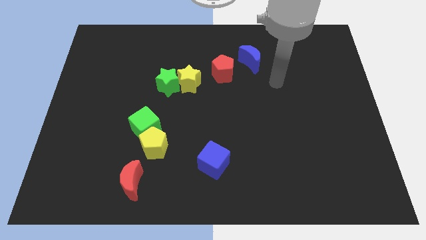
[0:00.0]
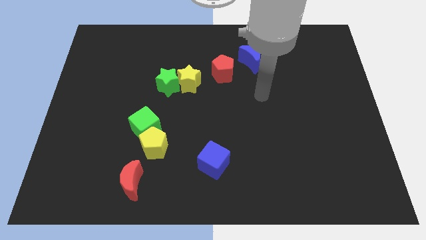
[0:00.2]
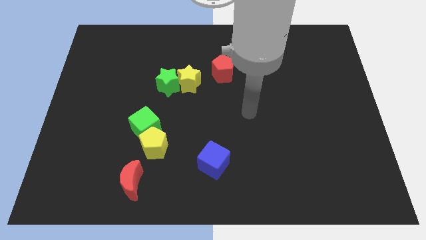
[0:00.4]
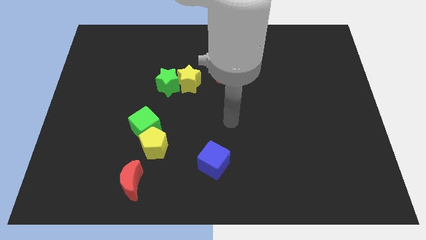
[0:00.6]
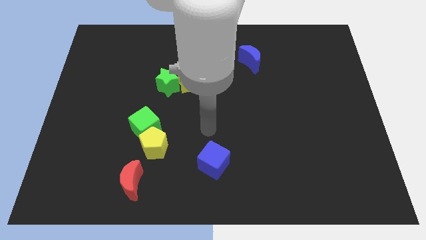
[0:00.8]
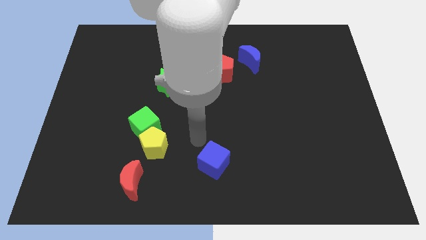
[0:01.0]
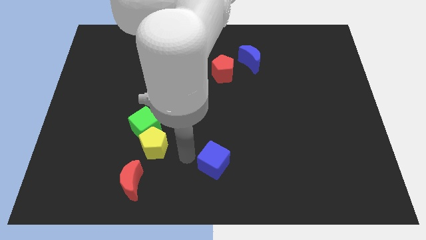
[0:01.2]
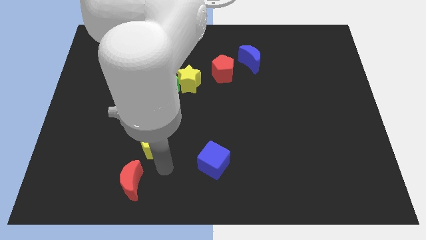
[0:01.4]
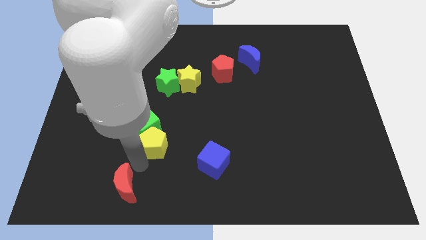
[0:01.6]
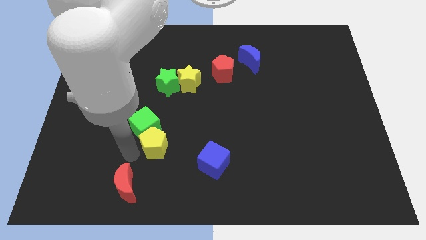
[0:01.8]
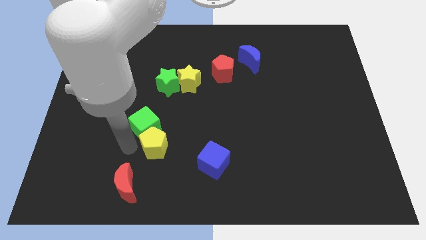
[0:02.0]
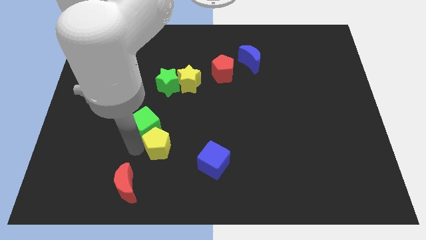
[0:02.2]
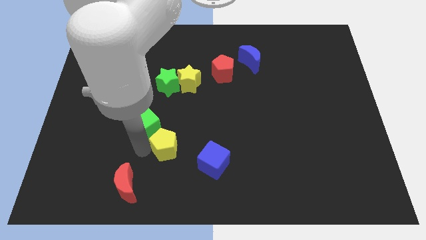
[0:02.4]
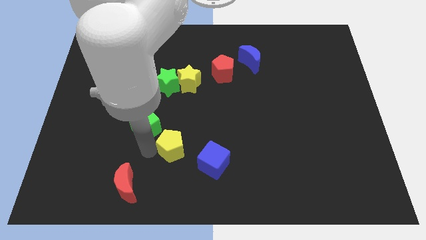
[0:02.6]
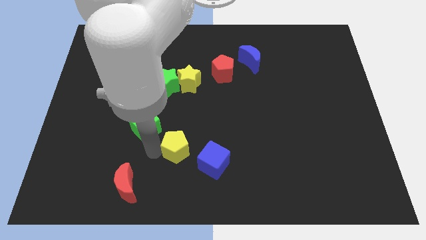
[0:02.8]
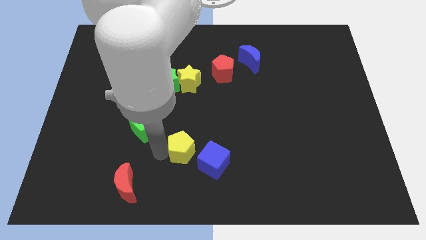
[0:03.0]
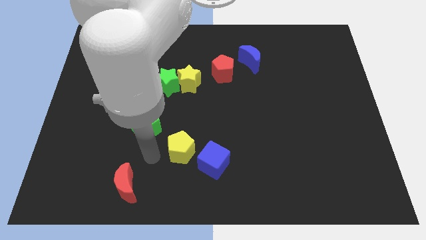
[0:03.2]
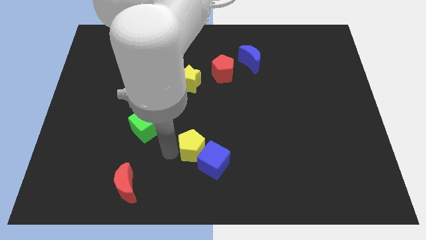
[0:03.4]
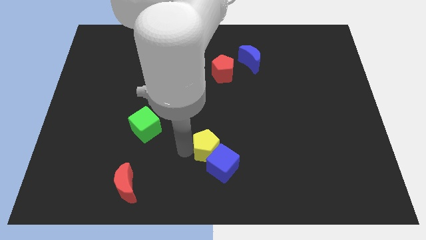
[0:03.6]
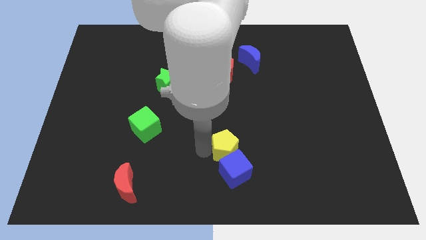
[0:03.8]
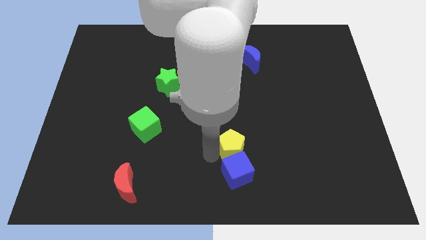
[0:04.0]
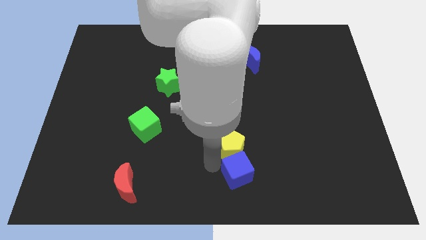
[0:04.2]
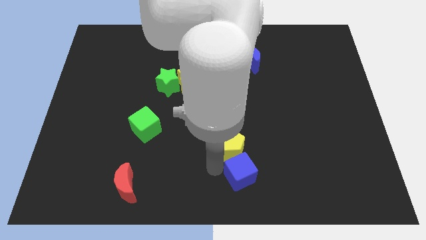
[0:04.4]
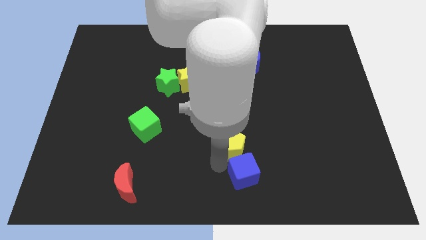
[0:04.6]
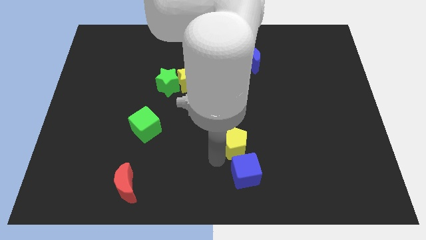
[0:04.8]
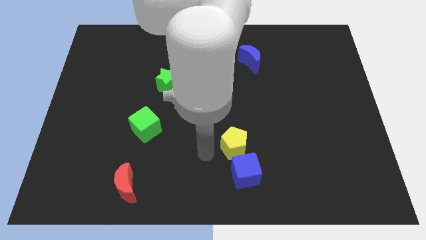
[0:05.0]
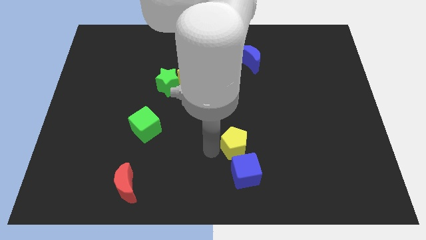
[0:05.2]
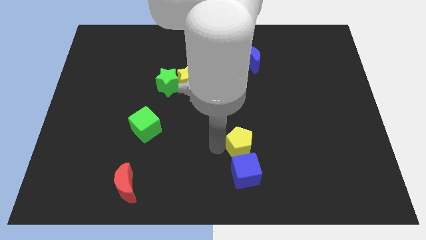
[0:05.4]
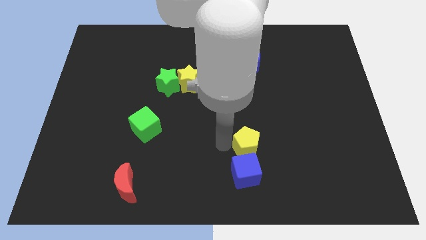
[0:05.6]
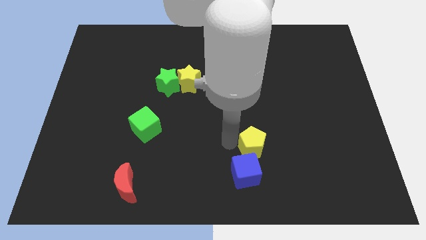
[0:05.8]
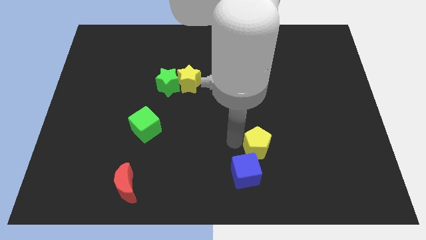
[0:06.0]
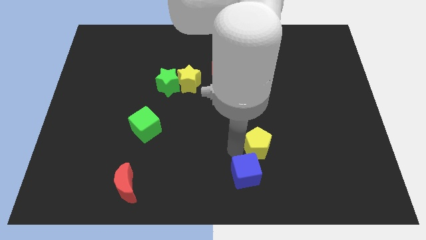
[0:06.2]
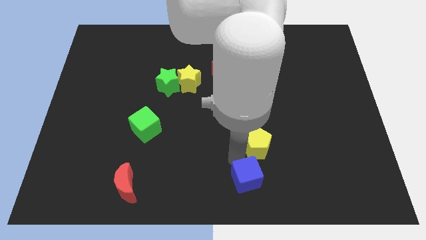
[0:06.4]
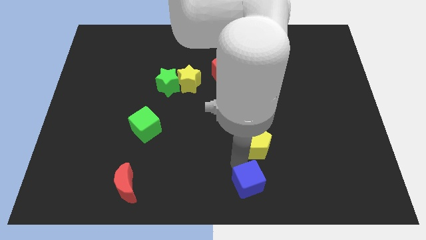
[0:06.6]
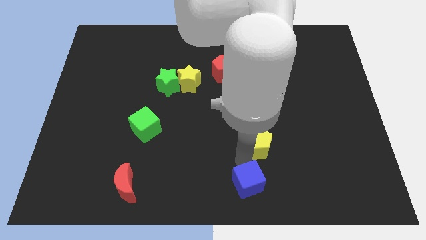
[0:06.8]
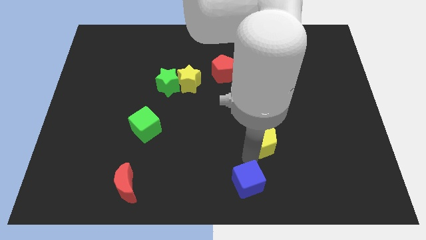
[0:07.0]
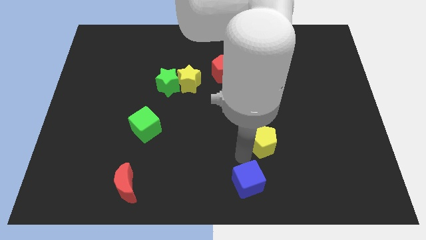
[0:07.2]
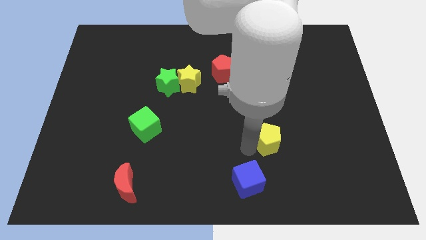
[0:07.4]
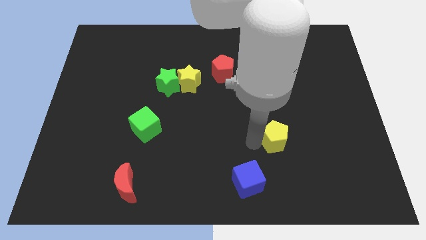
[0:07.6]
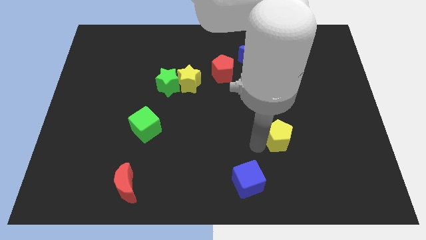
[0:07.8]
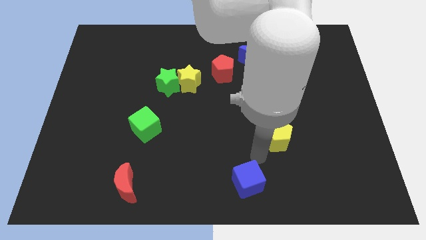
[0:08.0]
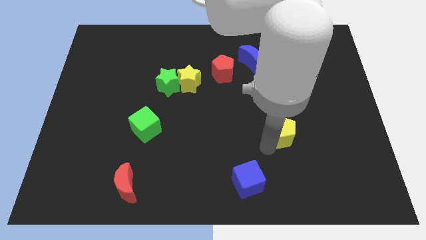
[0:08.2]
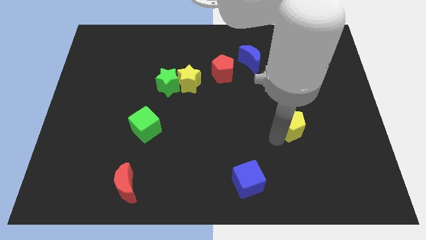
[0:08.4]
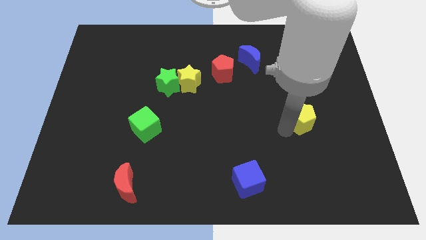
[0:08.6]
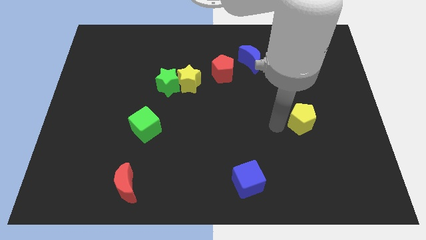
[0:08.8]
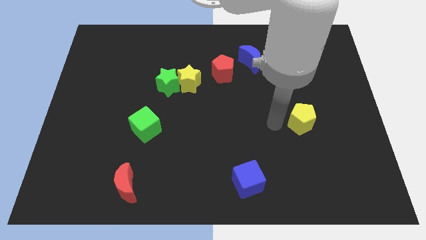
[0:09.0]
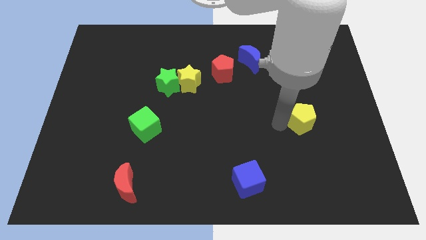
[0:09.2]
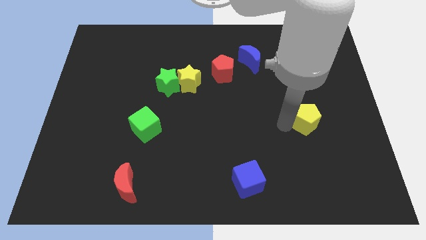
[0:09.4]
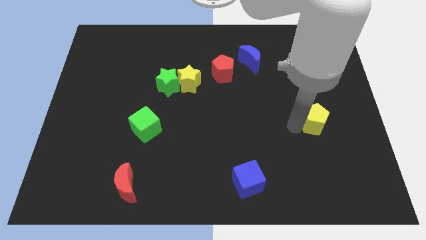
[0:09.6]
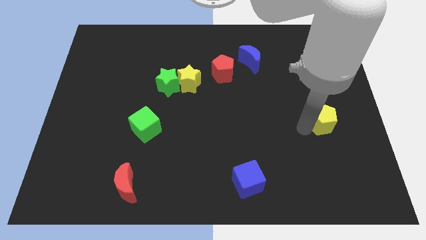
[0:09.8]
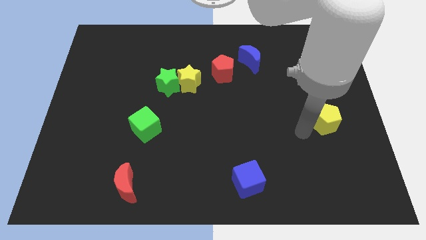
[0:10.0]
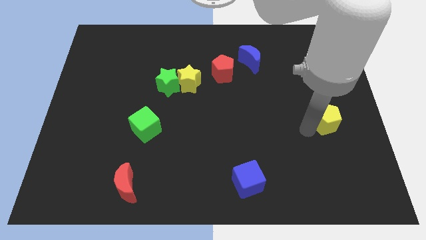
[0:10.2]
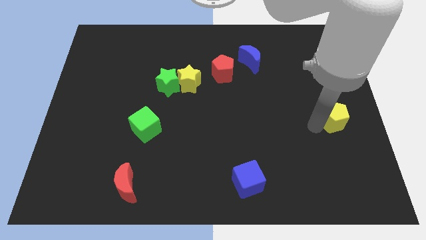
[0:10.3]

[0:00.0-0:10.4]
slide the yellow pentagon to the right side

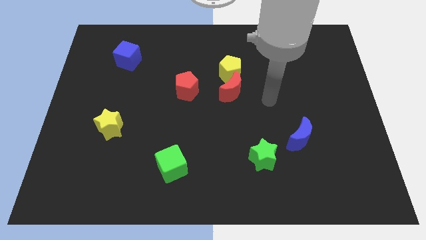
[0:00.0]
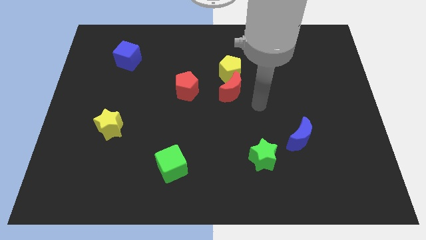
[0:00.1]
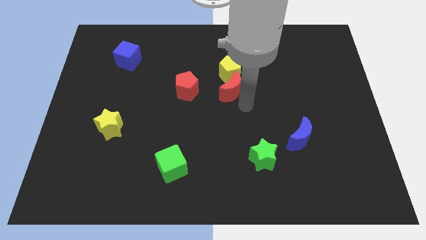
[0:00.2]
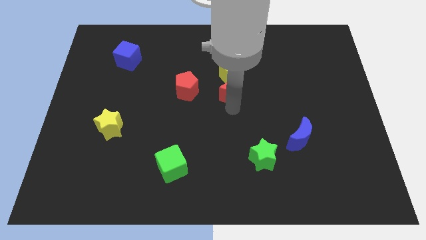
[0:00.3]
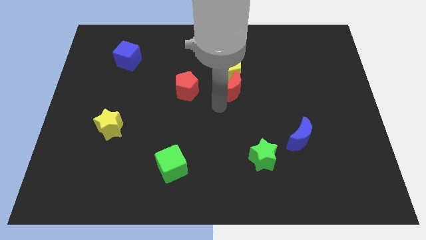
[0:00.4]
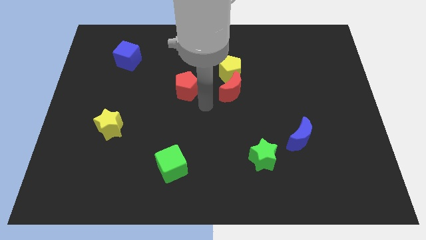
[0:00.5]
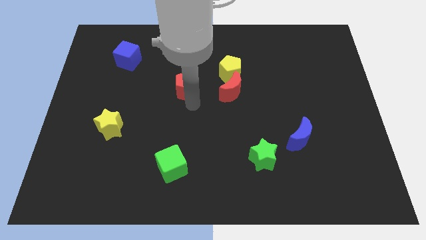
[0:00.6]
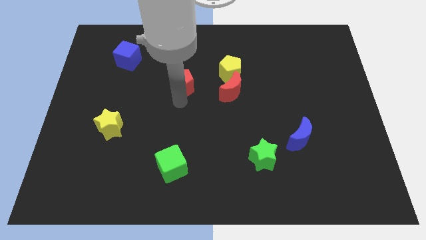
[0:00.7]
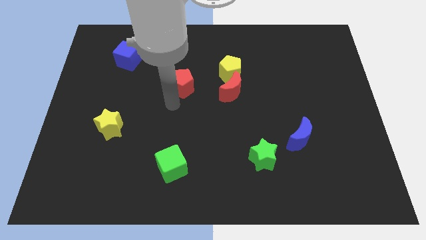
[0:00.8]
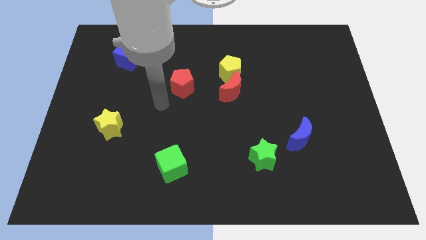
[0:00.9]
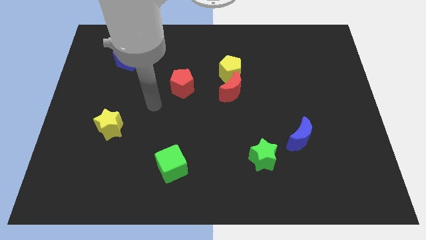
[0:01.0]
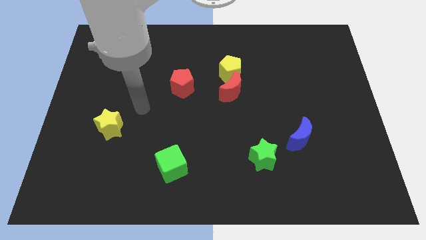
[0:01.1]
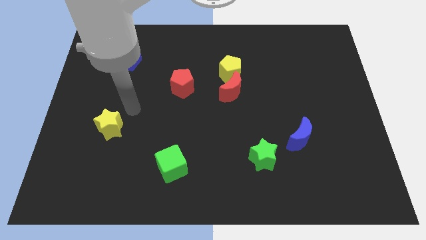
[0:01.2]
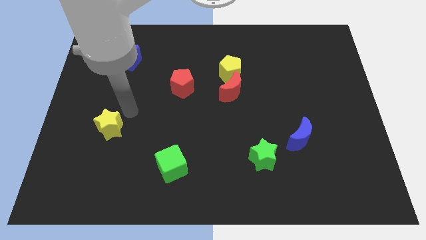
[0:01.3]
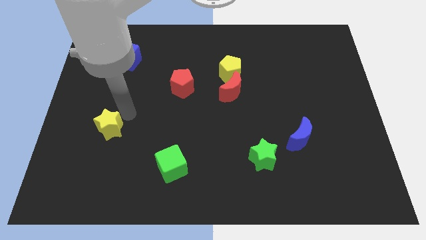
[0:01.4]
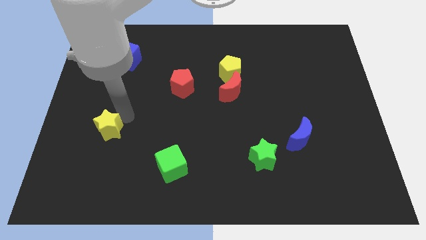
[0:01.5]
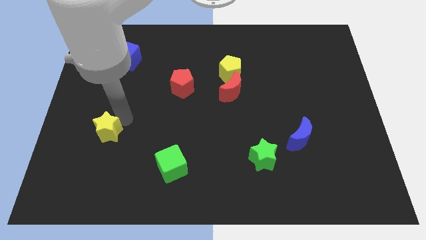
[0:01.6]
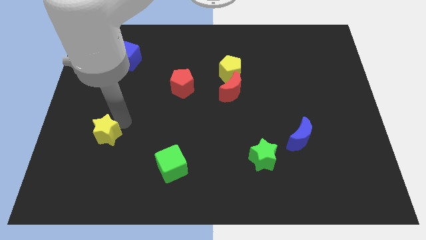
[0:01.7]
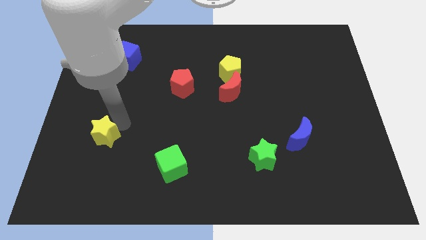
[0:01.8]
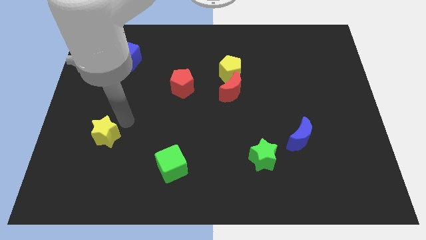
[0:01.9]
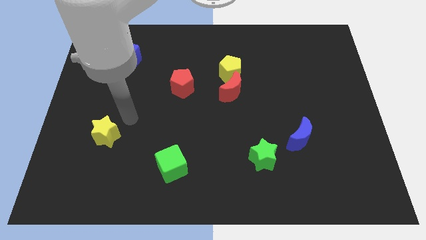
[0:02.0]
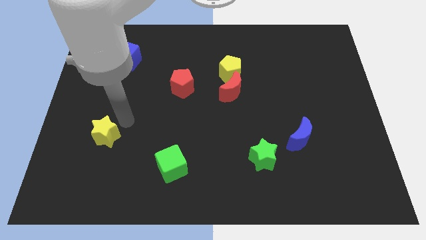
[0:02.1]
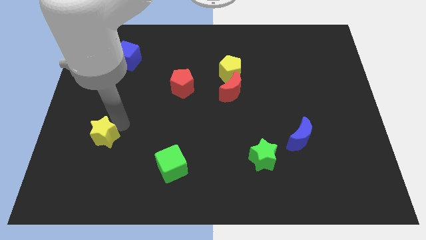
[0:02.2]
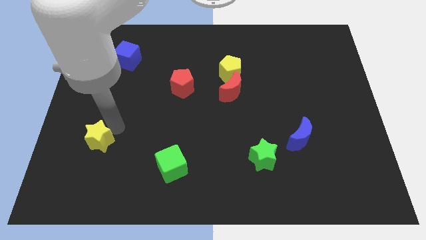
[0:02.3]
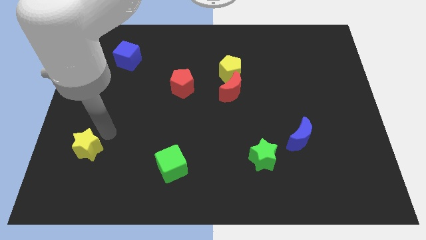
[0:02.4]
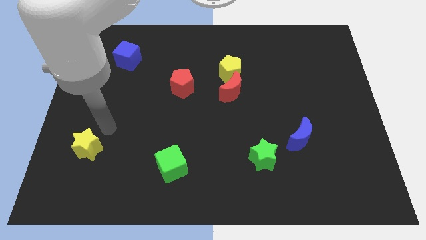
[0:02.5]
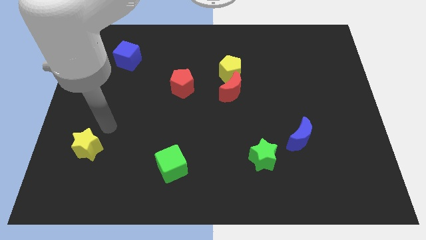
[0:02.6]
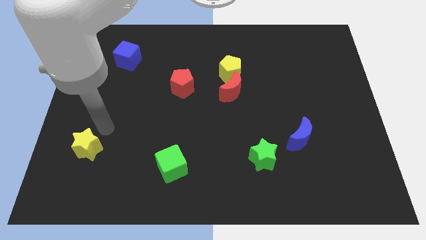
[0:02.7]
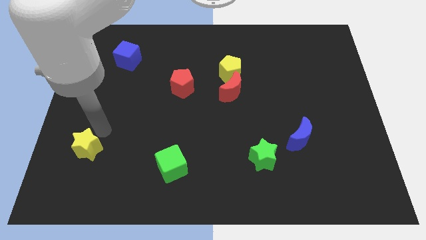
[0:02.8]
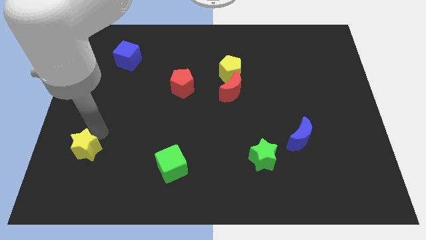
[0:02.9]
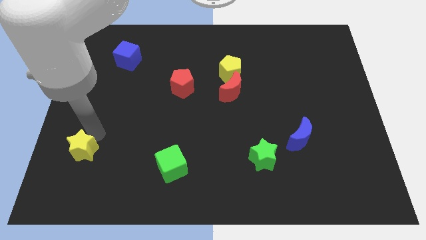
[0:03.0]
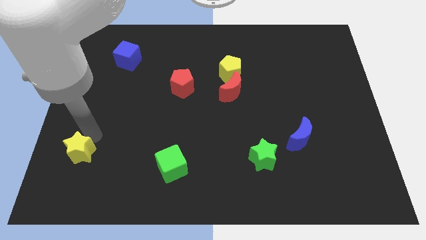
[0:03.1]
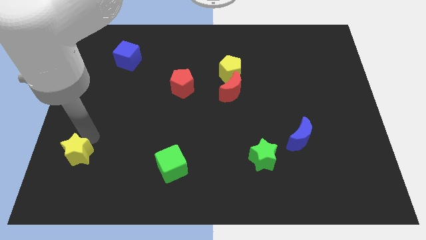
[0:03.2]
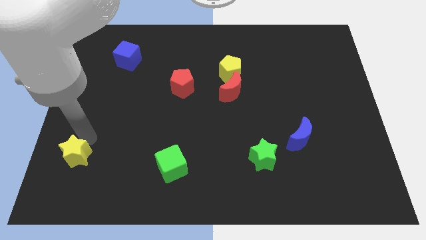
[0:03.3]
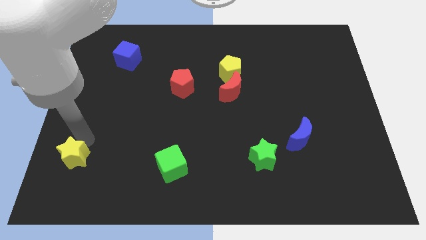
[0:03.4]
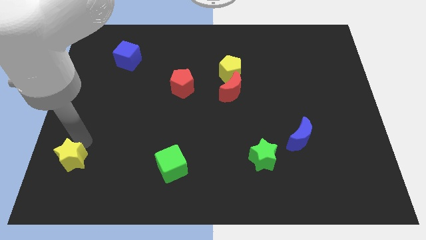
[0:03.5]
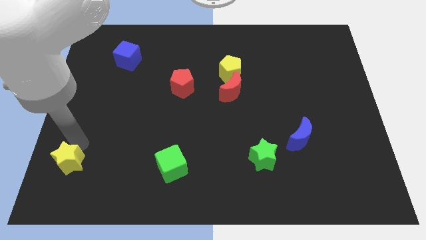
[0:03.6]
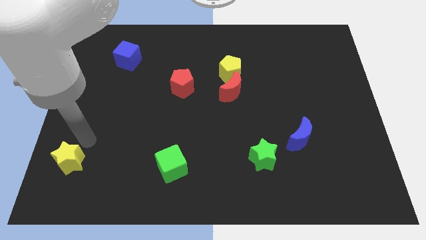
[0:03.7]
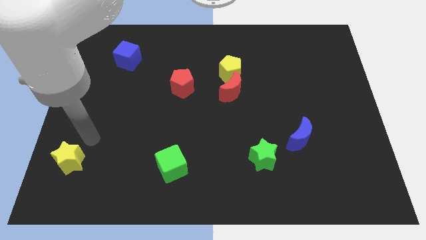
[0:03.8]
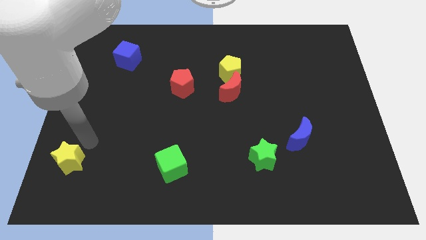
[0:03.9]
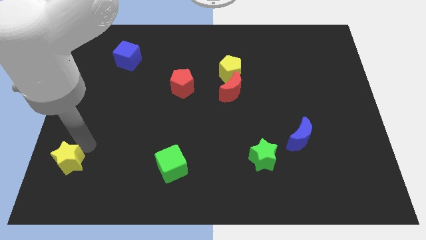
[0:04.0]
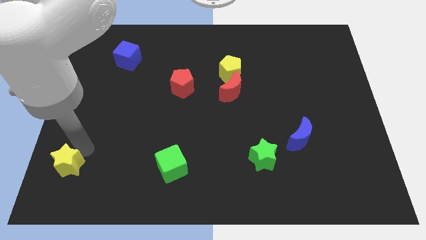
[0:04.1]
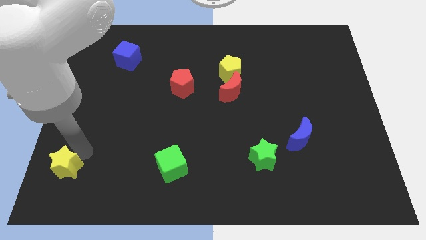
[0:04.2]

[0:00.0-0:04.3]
put the yellow star to the bottom left of the board
